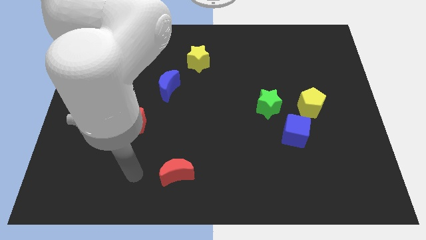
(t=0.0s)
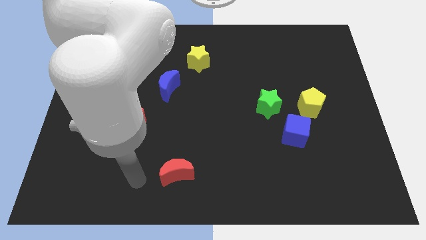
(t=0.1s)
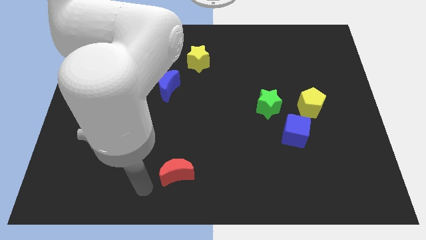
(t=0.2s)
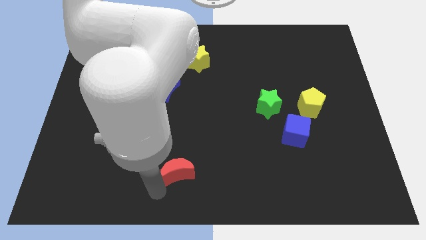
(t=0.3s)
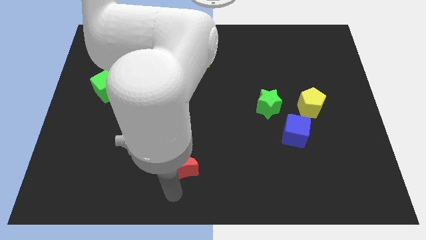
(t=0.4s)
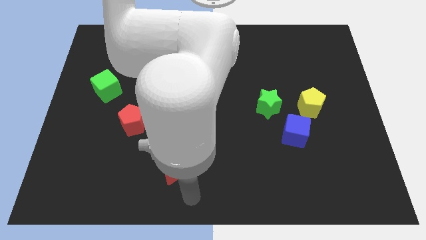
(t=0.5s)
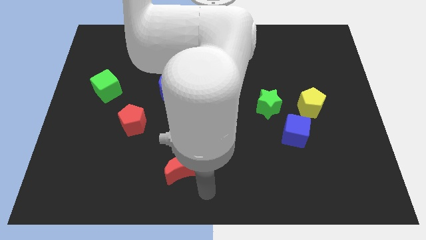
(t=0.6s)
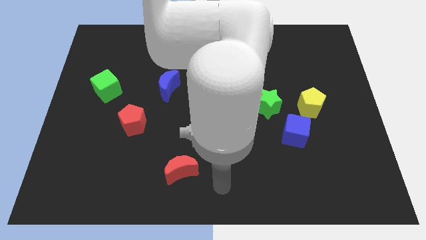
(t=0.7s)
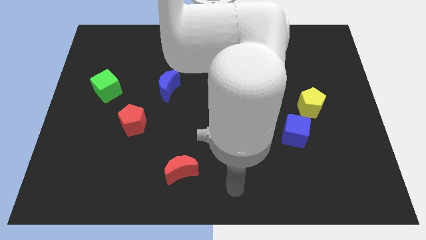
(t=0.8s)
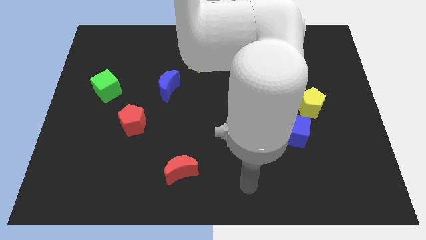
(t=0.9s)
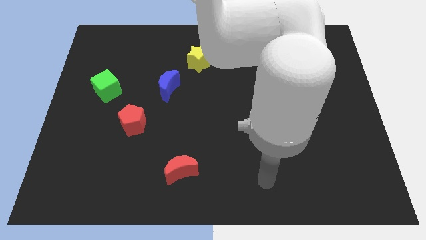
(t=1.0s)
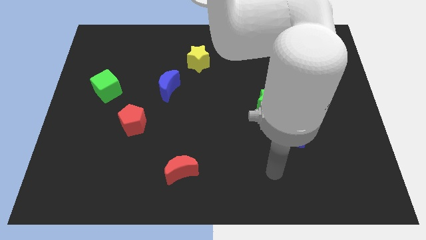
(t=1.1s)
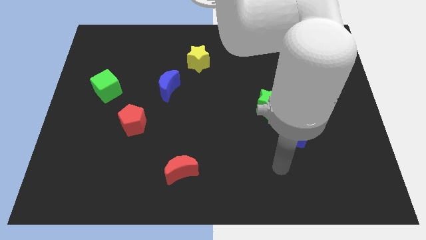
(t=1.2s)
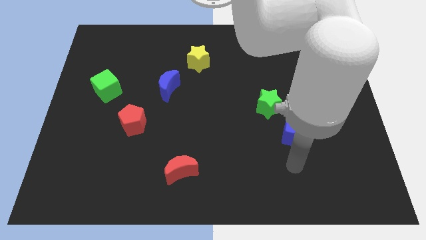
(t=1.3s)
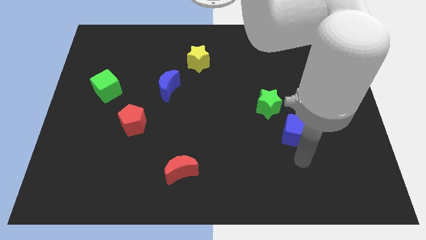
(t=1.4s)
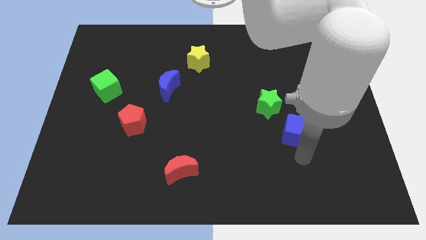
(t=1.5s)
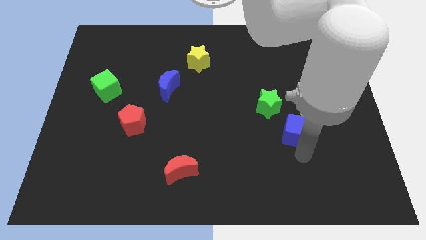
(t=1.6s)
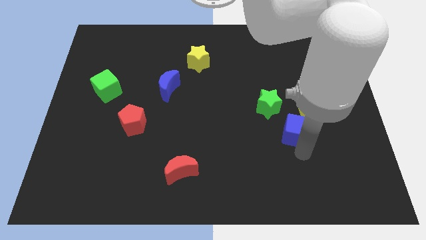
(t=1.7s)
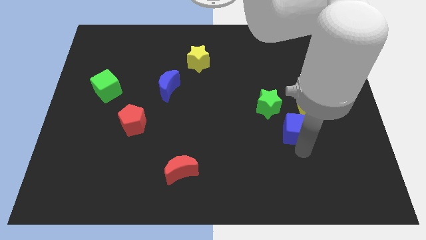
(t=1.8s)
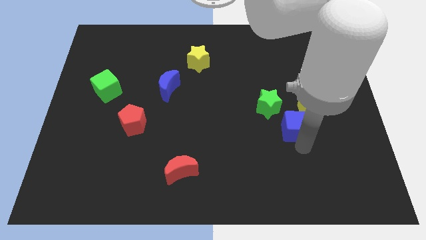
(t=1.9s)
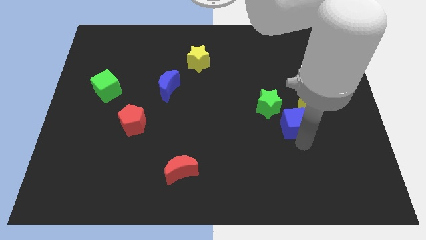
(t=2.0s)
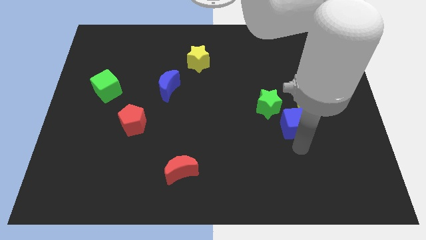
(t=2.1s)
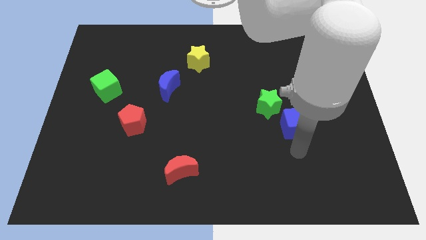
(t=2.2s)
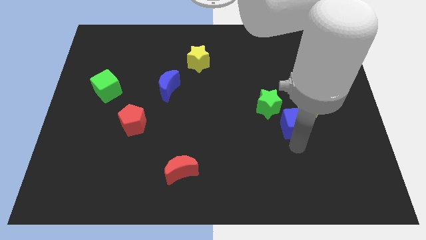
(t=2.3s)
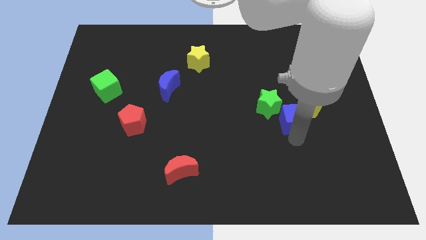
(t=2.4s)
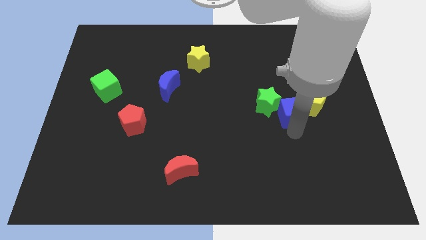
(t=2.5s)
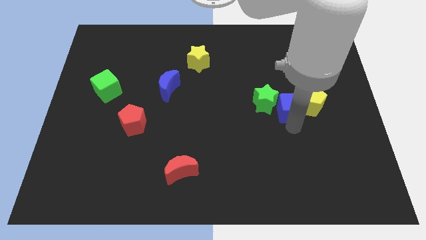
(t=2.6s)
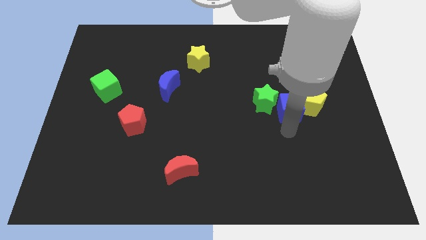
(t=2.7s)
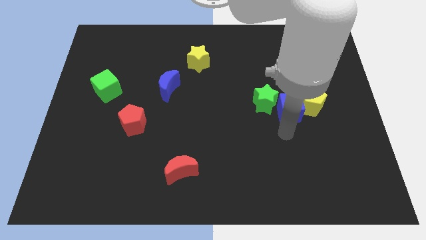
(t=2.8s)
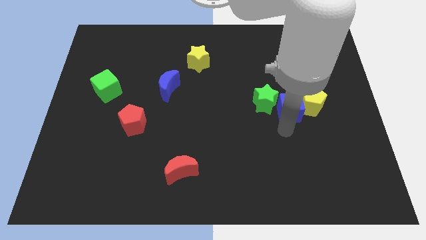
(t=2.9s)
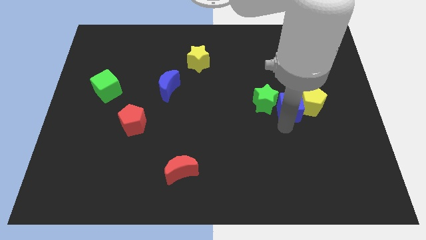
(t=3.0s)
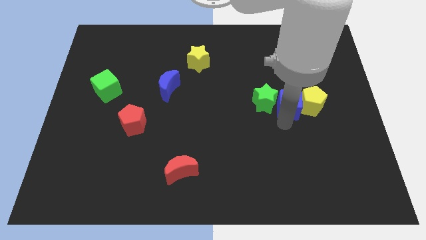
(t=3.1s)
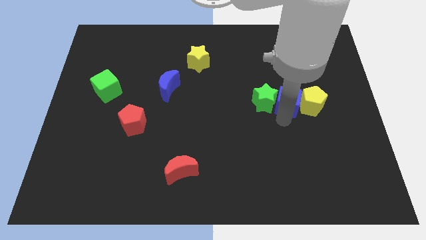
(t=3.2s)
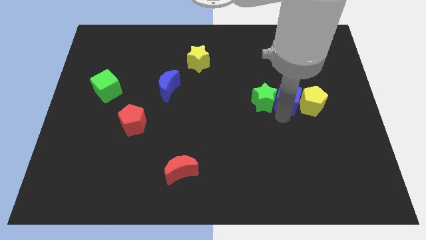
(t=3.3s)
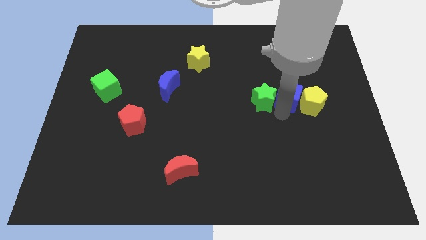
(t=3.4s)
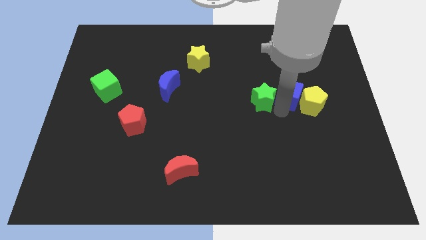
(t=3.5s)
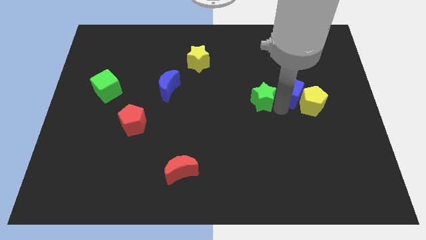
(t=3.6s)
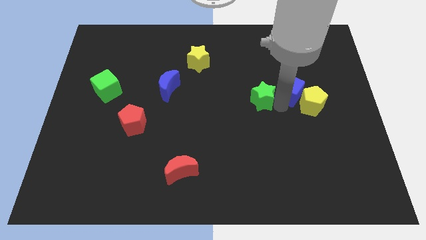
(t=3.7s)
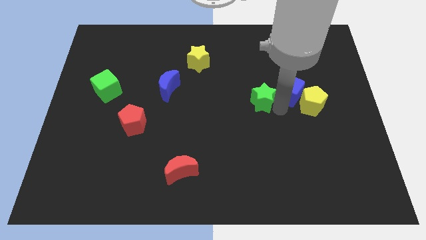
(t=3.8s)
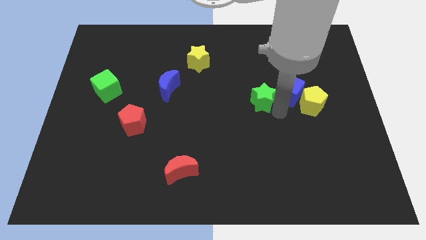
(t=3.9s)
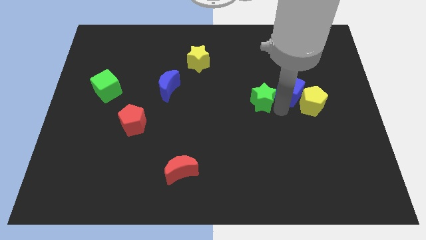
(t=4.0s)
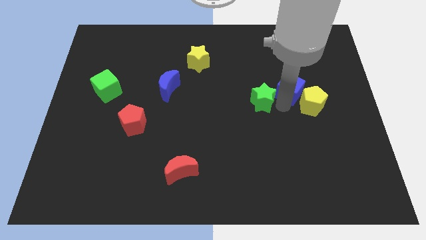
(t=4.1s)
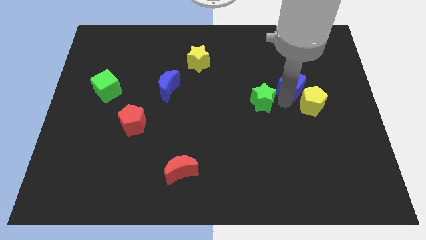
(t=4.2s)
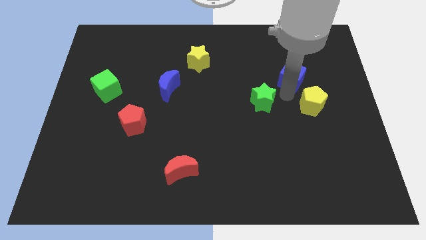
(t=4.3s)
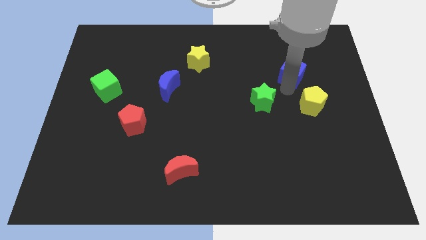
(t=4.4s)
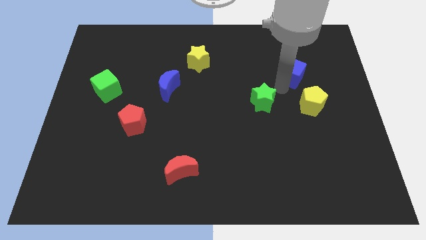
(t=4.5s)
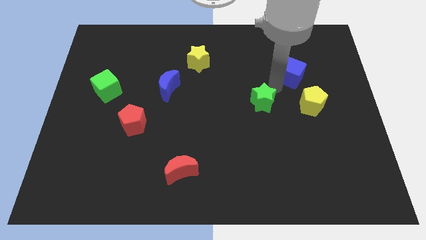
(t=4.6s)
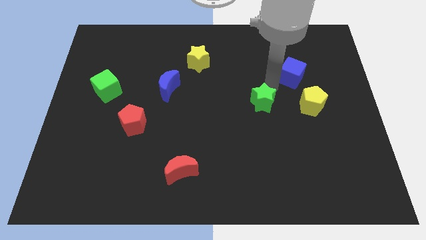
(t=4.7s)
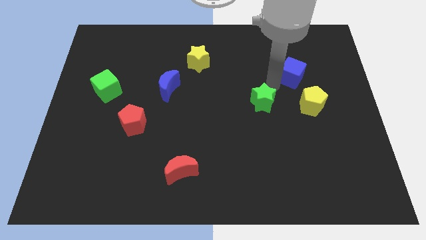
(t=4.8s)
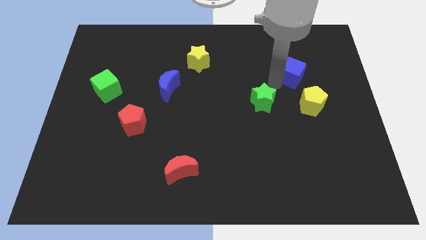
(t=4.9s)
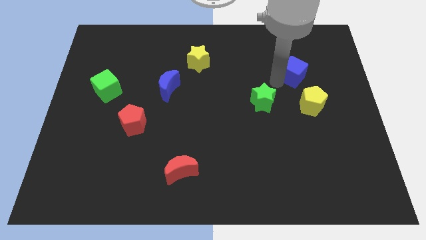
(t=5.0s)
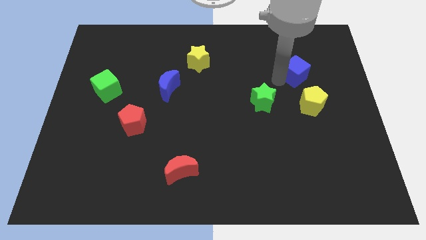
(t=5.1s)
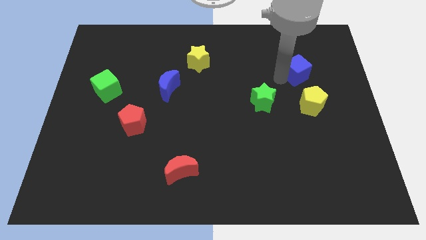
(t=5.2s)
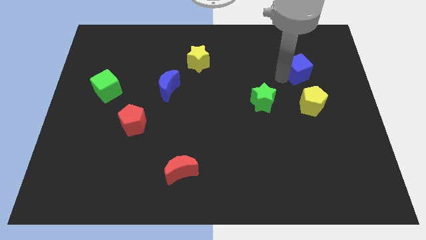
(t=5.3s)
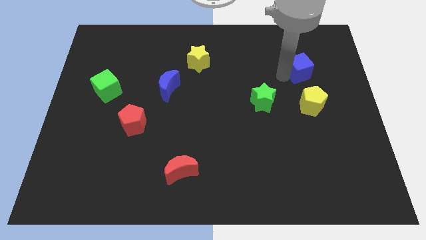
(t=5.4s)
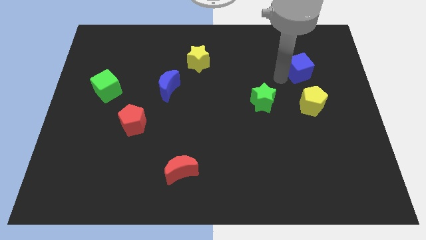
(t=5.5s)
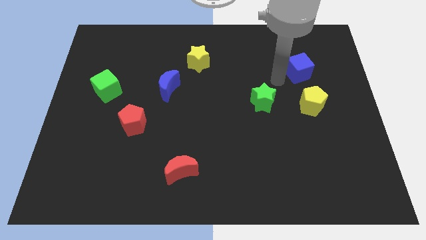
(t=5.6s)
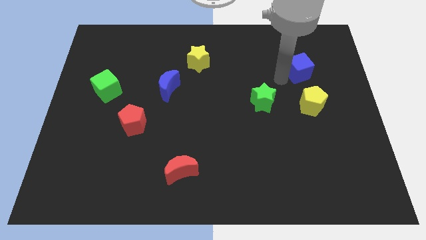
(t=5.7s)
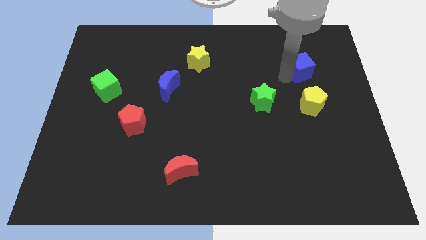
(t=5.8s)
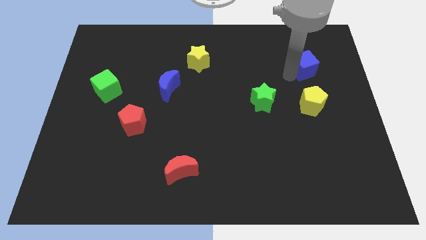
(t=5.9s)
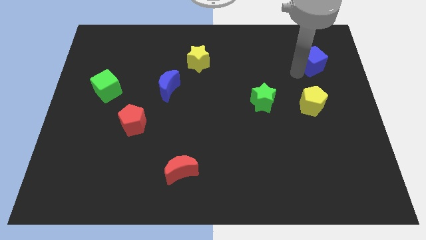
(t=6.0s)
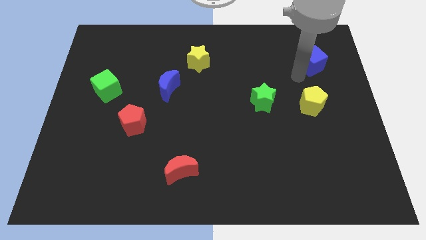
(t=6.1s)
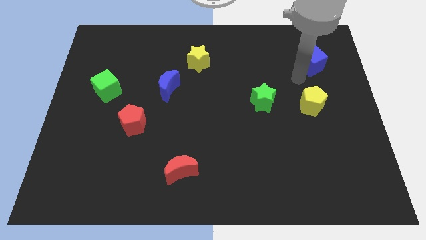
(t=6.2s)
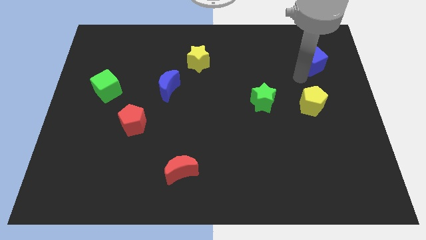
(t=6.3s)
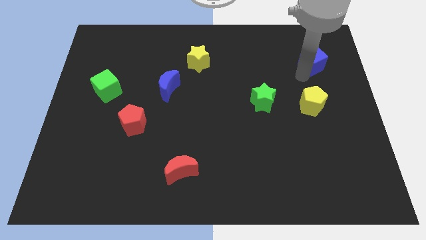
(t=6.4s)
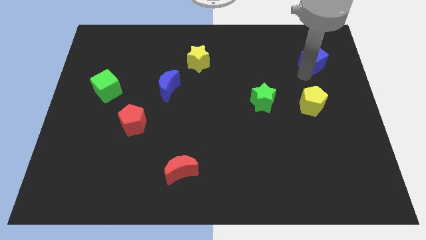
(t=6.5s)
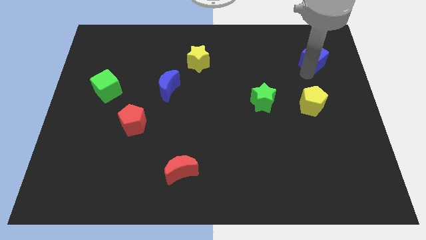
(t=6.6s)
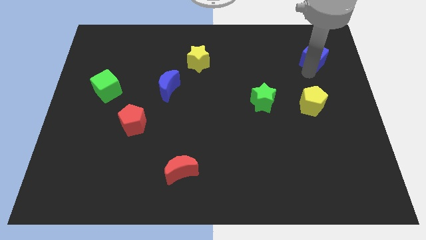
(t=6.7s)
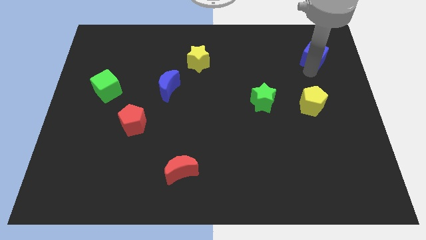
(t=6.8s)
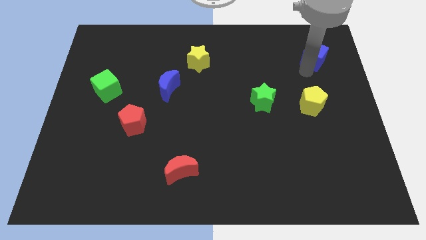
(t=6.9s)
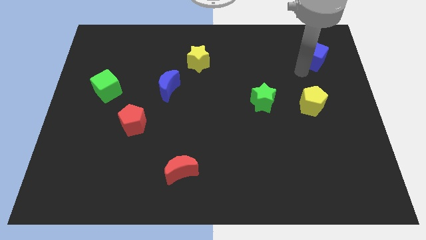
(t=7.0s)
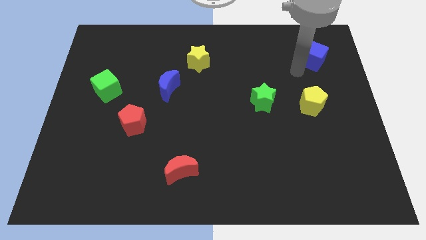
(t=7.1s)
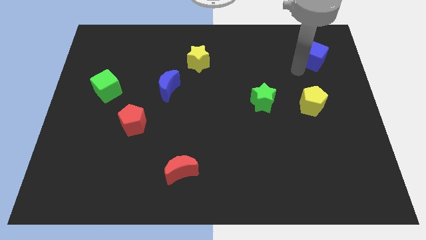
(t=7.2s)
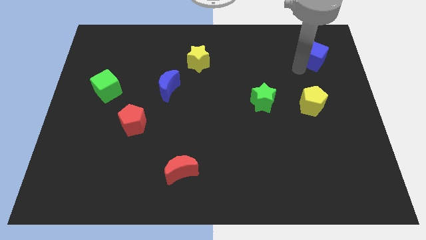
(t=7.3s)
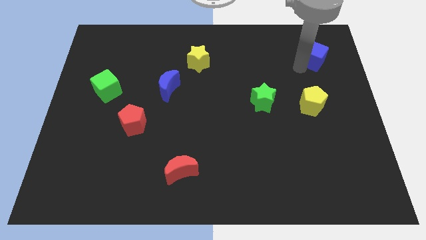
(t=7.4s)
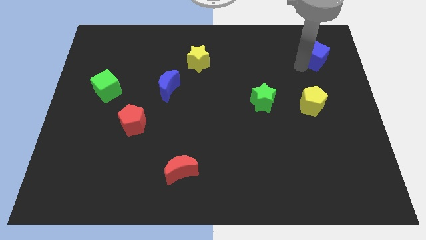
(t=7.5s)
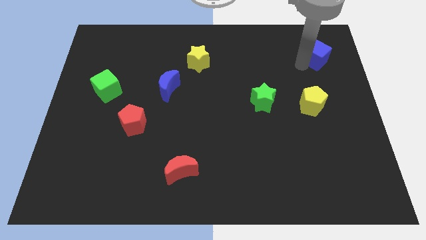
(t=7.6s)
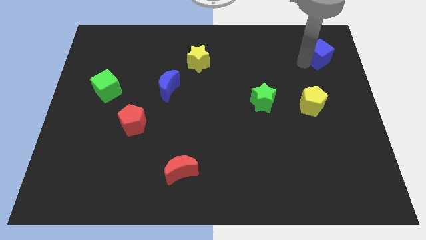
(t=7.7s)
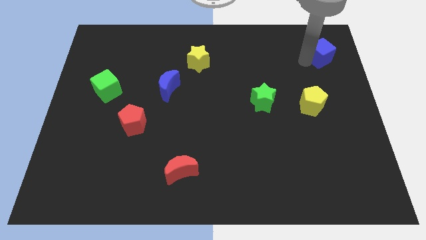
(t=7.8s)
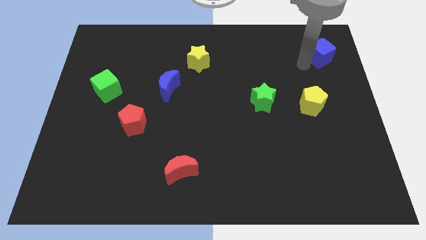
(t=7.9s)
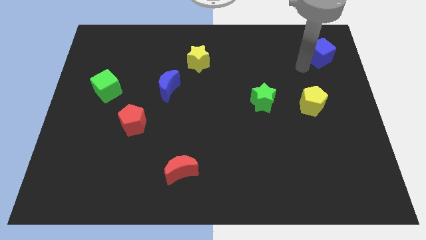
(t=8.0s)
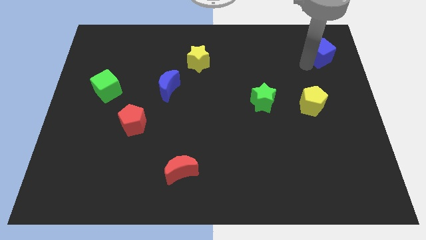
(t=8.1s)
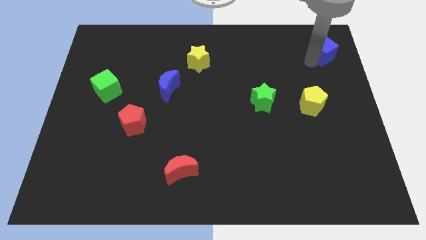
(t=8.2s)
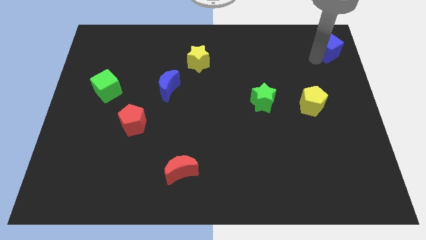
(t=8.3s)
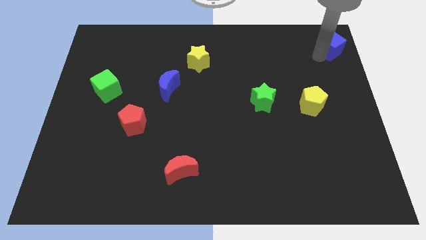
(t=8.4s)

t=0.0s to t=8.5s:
slide the blue cube to the top right
